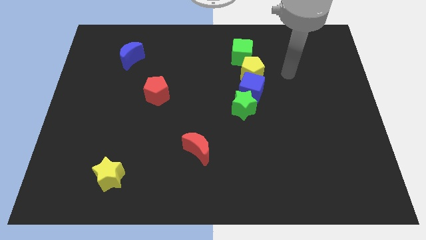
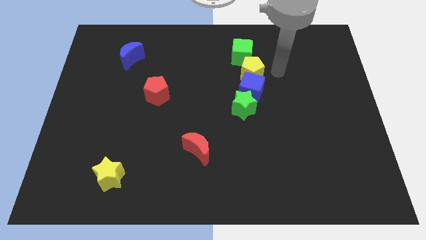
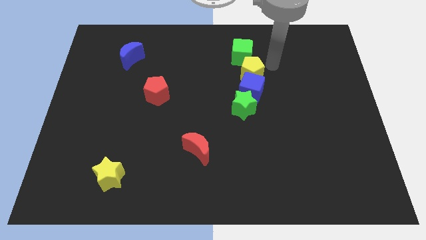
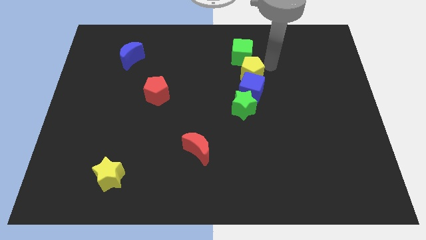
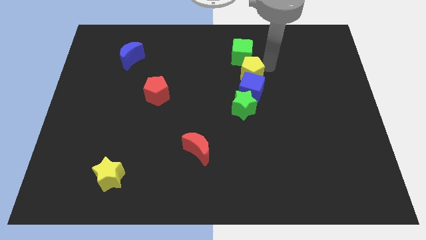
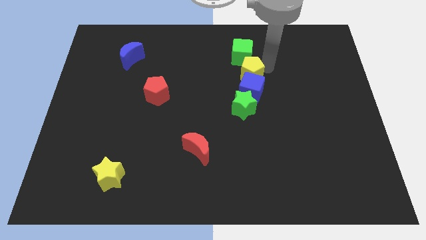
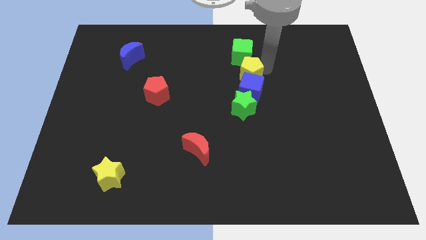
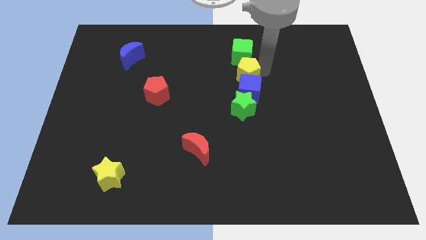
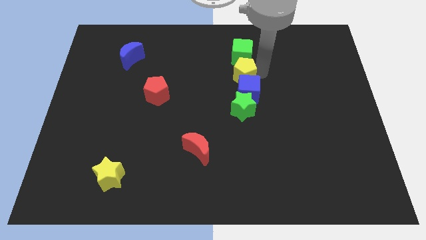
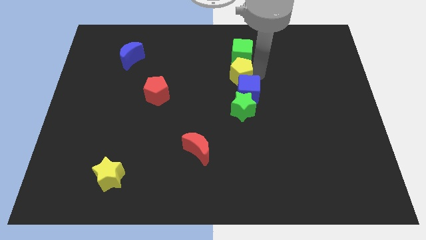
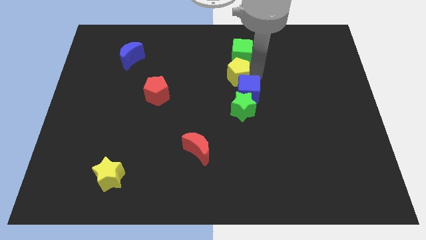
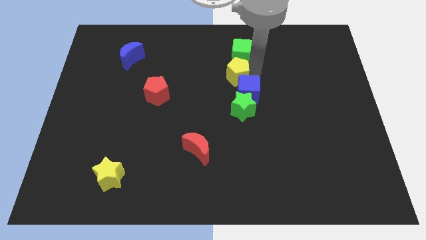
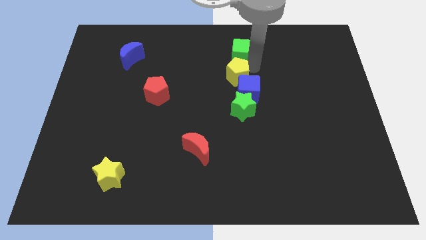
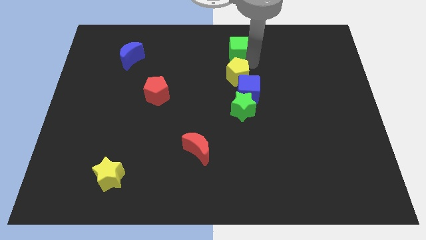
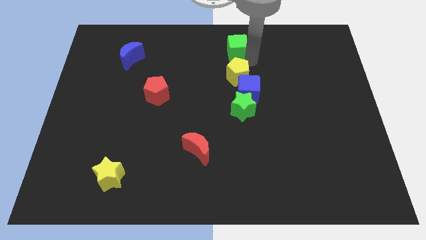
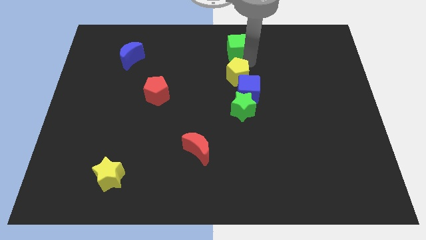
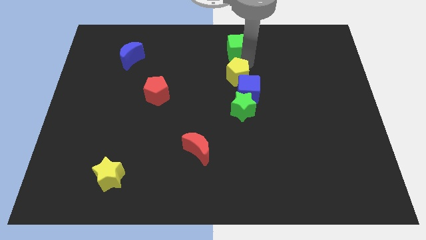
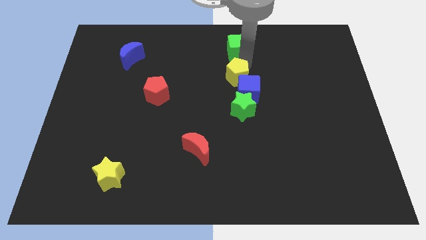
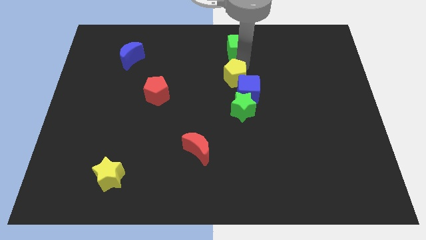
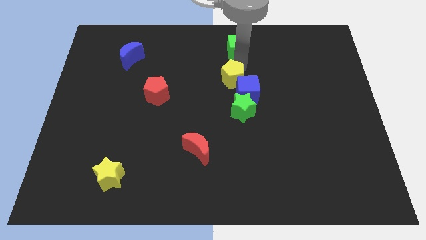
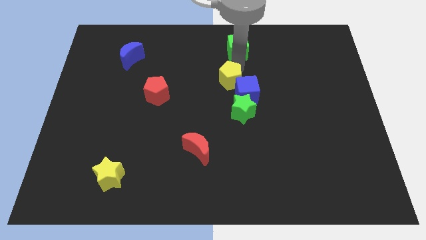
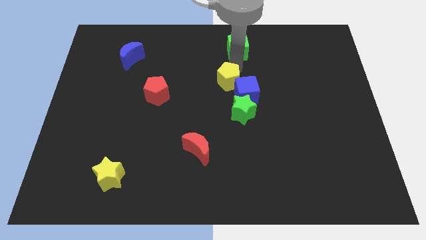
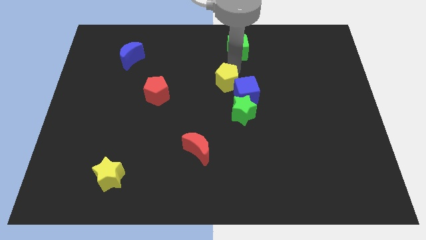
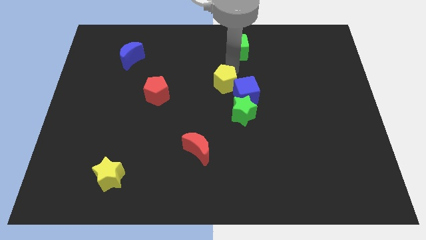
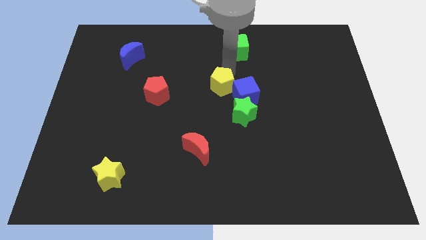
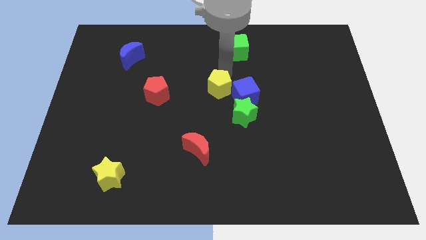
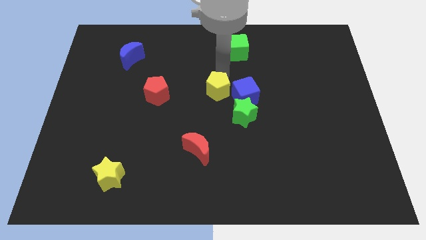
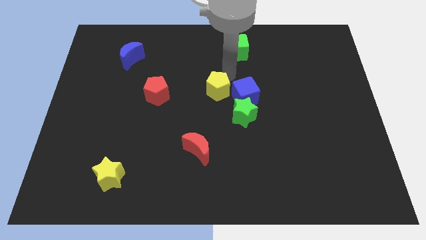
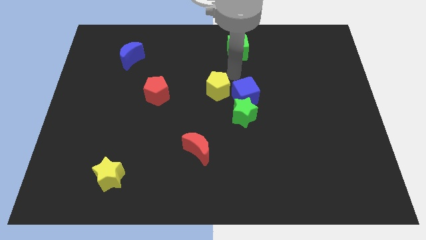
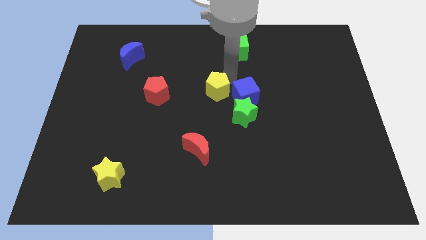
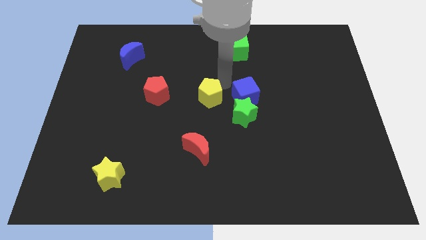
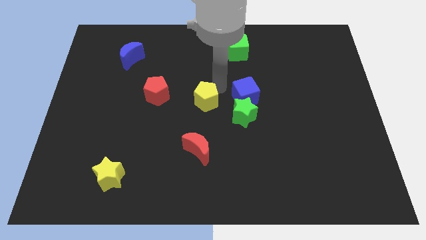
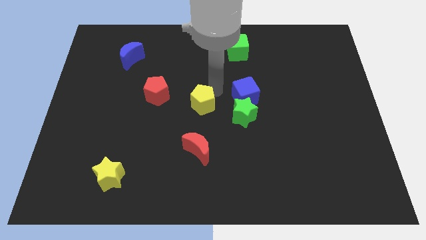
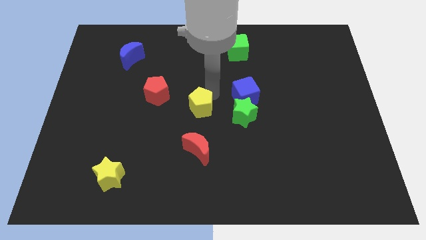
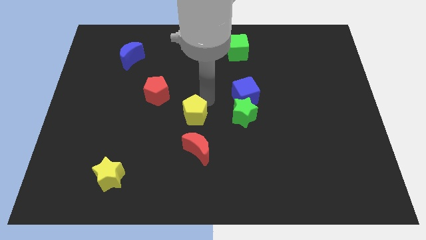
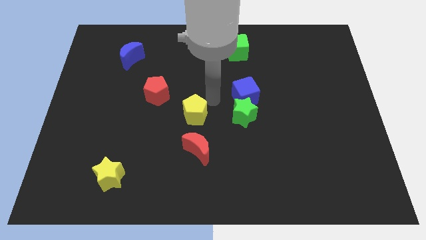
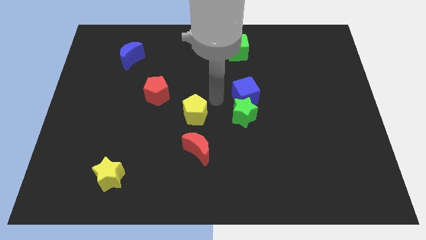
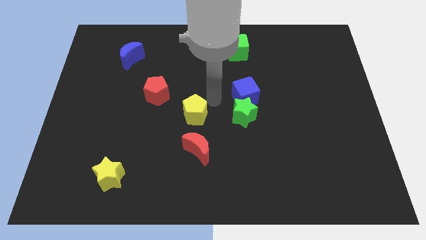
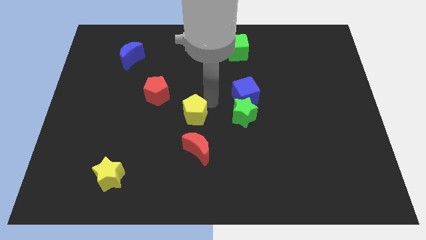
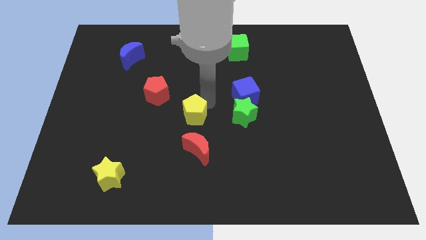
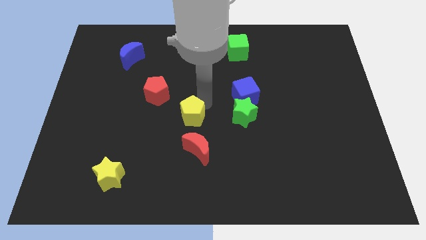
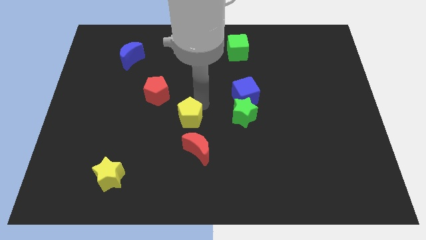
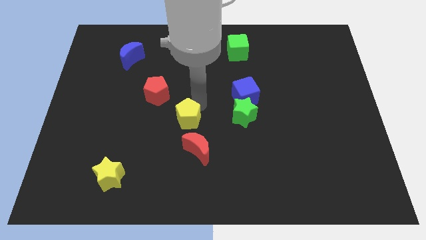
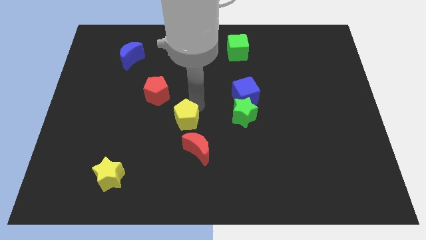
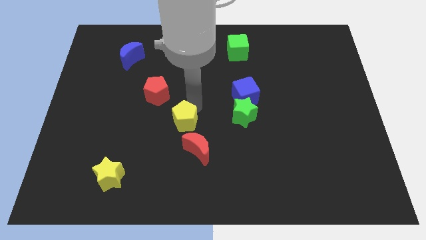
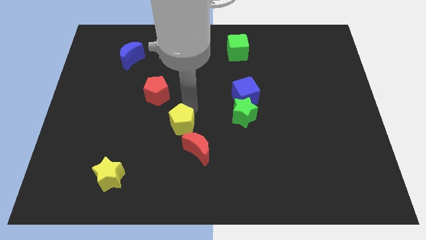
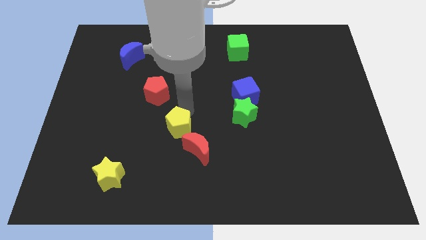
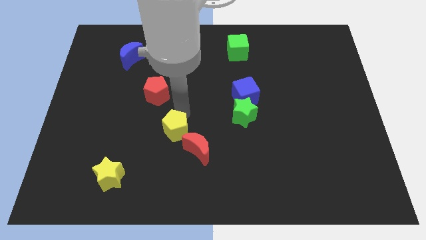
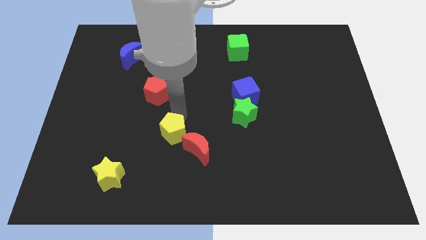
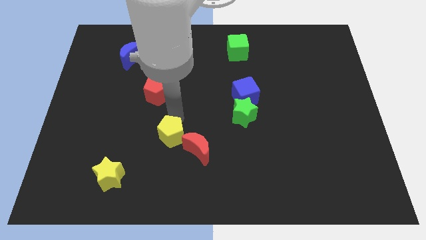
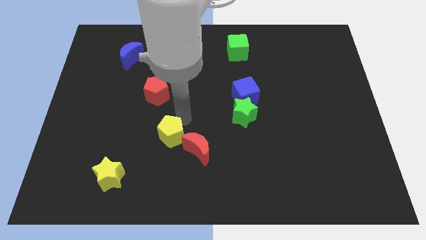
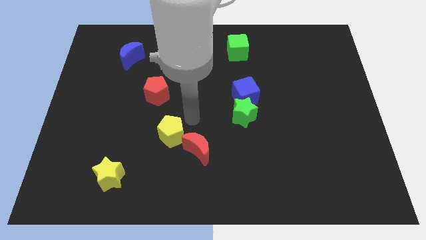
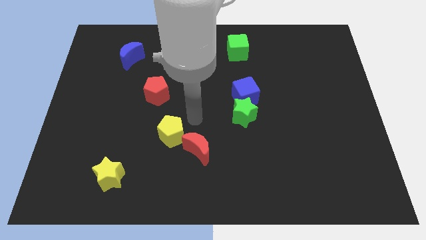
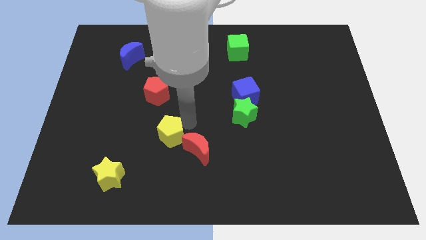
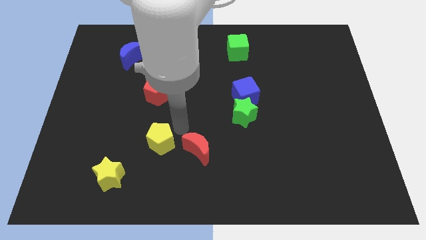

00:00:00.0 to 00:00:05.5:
put the yellow pentagon diagonally up and to the right of the yellow star
